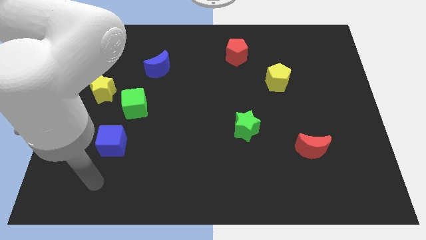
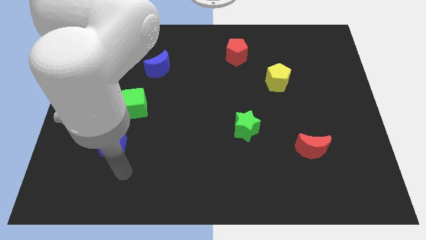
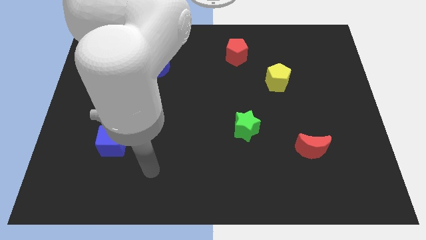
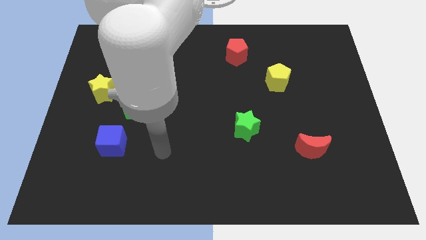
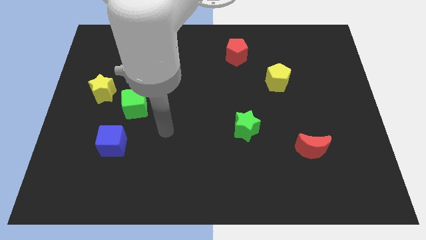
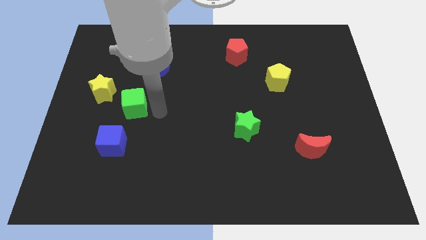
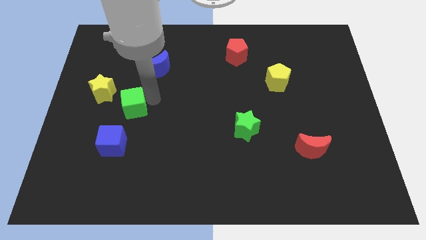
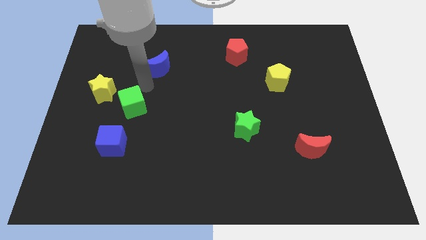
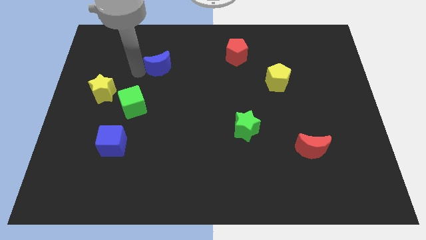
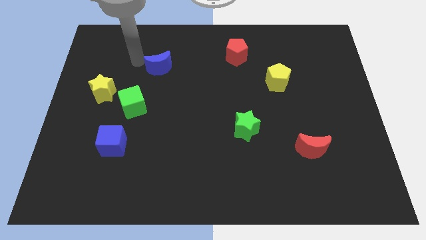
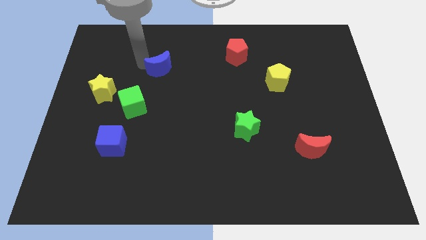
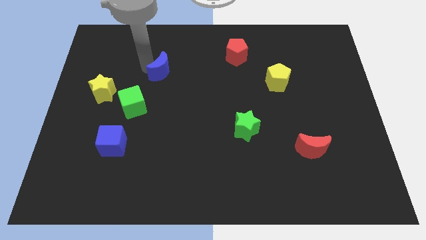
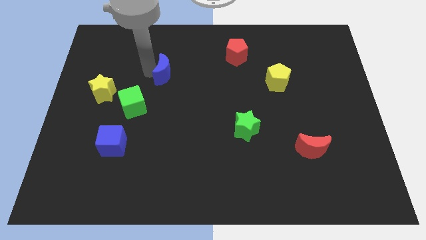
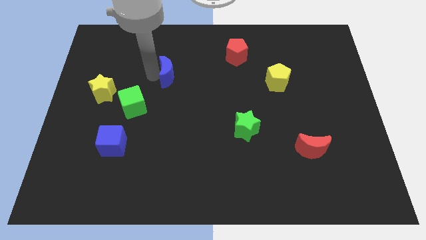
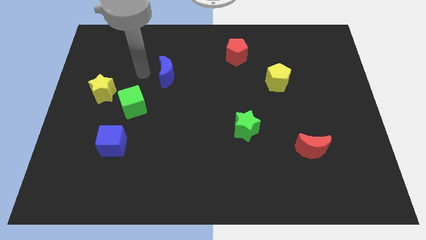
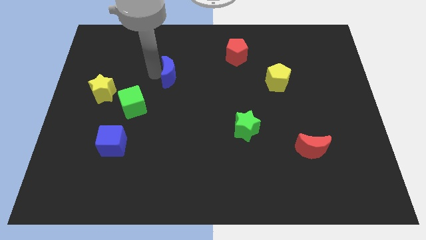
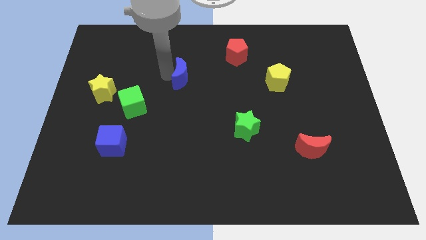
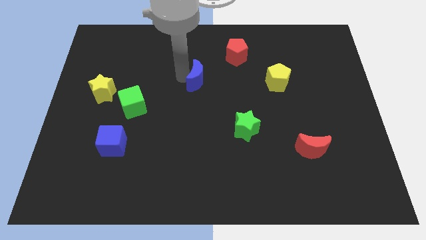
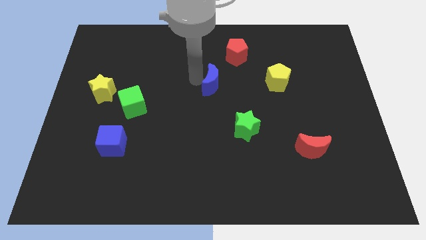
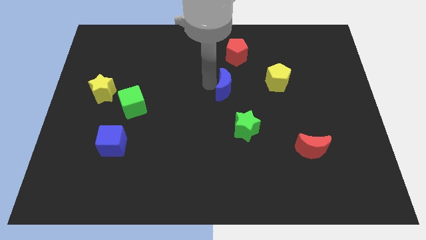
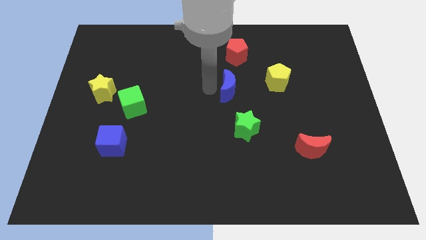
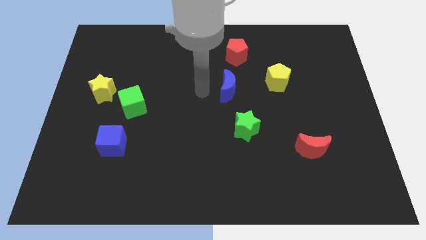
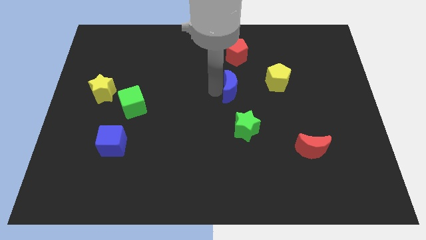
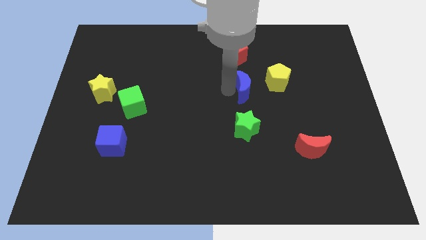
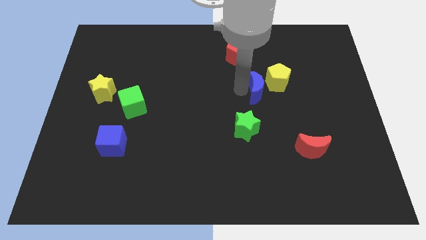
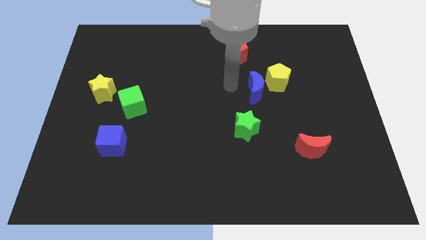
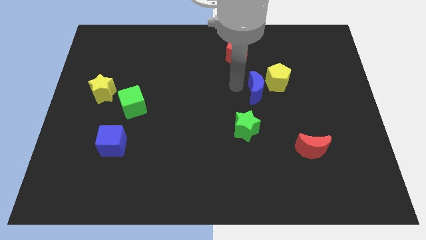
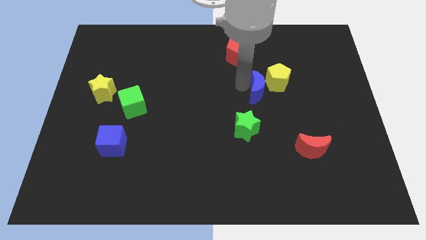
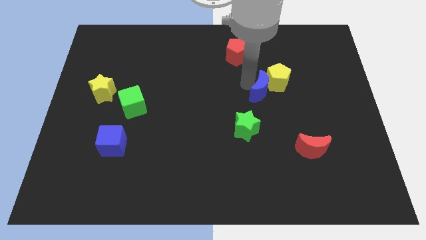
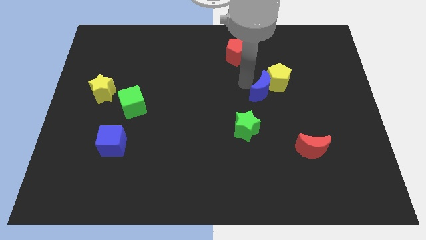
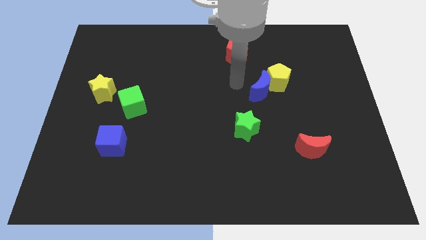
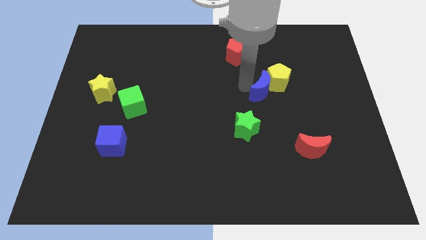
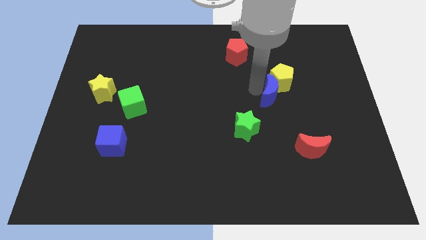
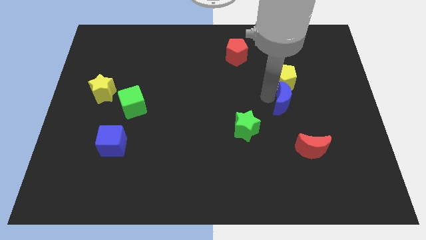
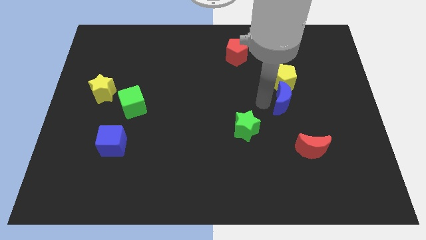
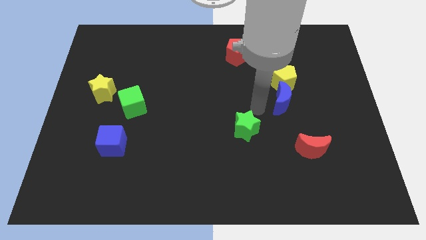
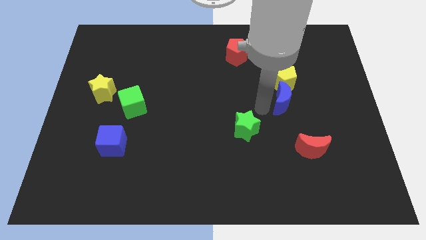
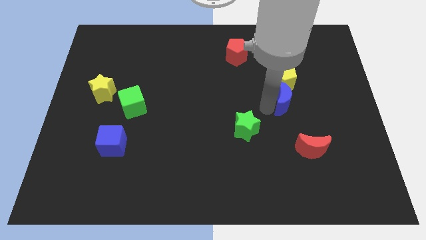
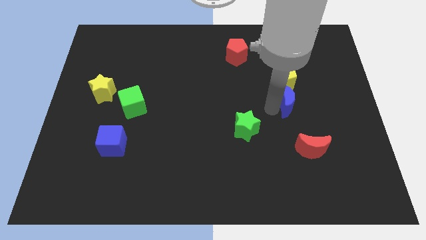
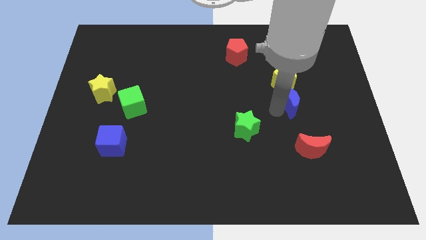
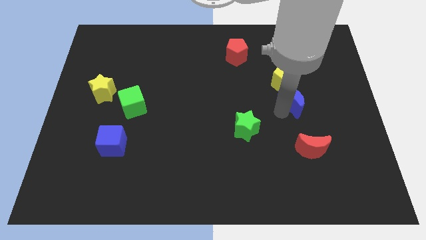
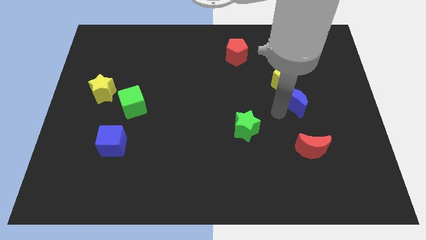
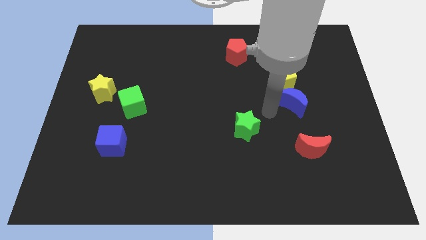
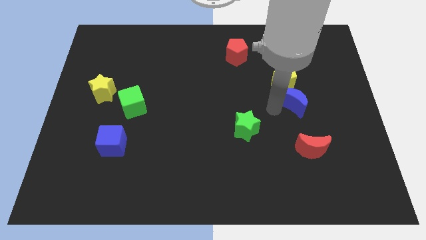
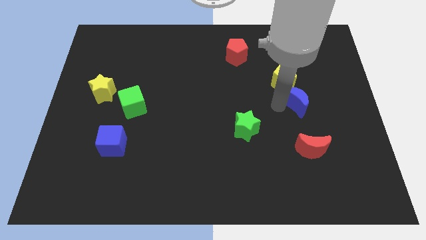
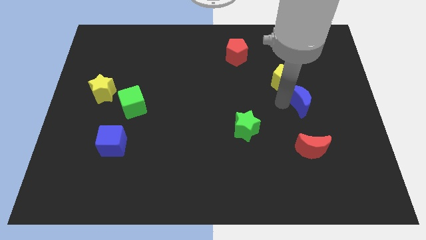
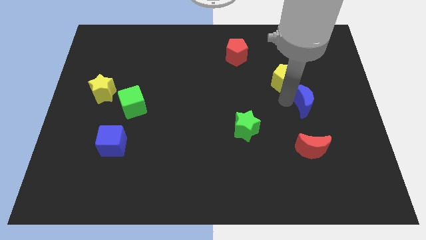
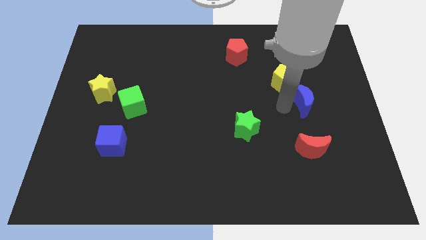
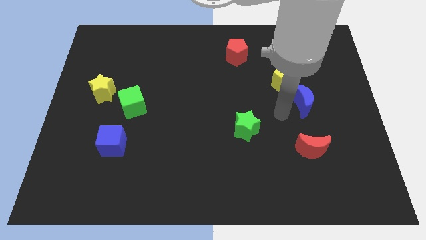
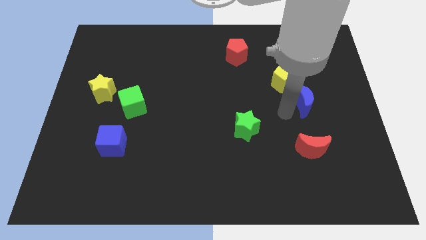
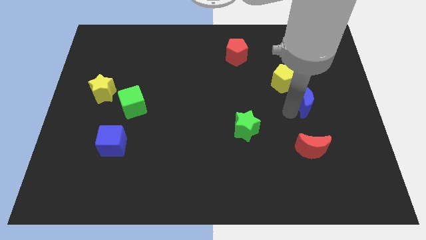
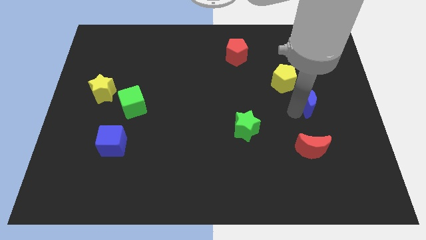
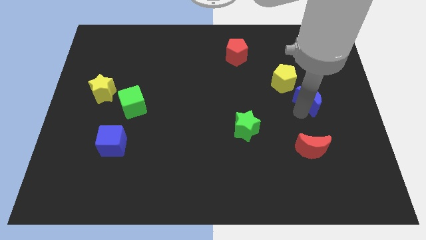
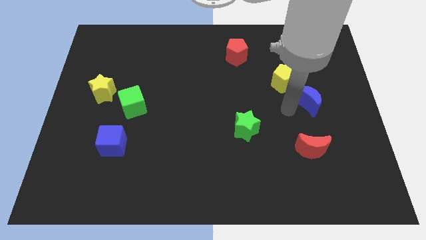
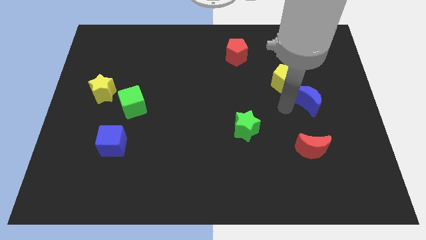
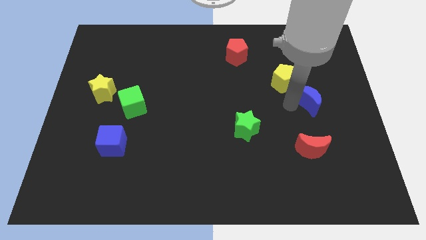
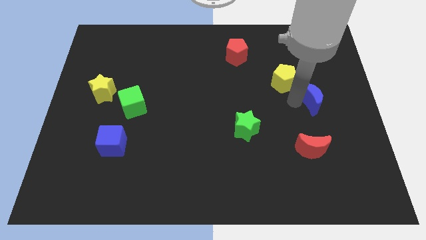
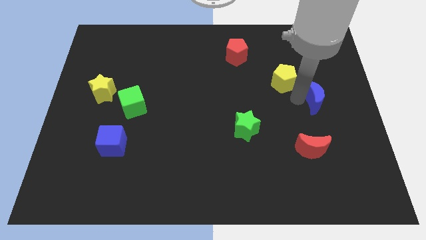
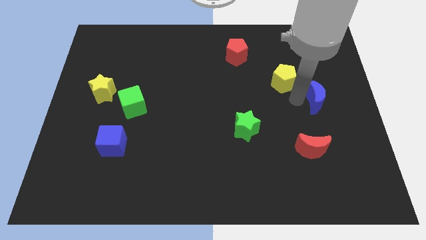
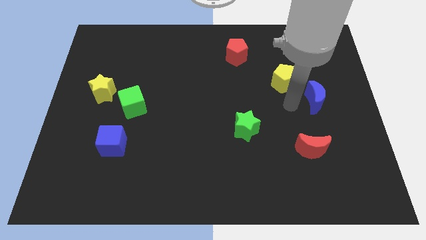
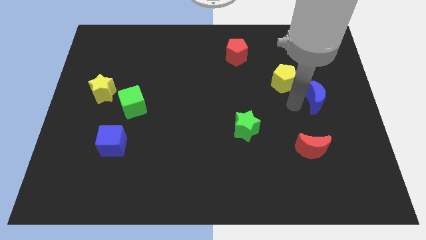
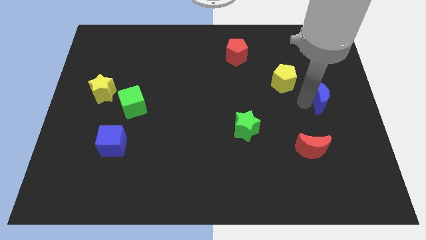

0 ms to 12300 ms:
put the blue moon to the right side

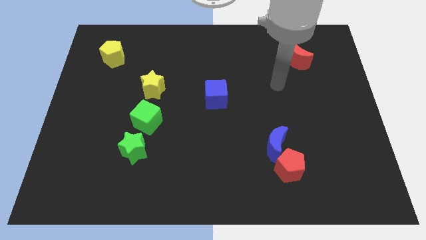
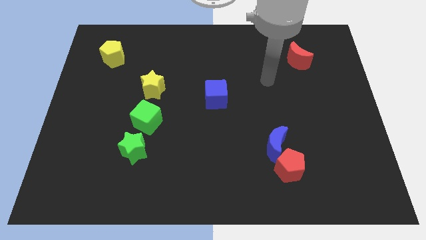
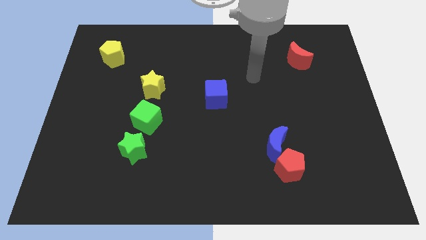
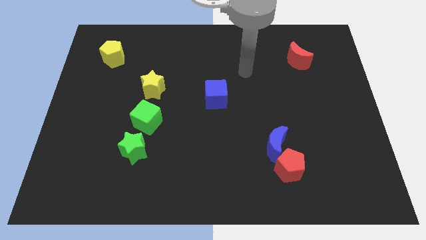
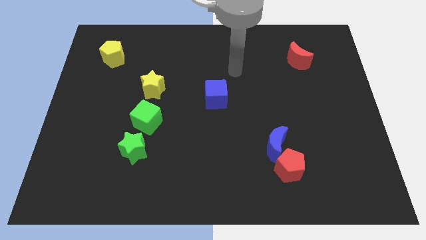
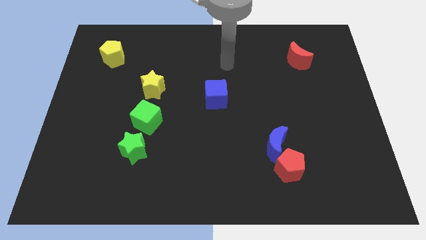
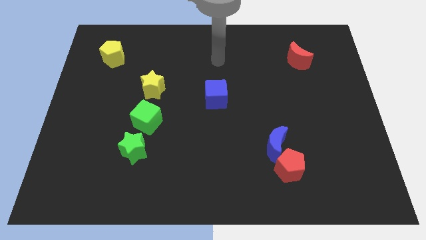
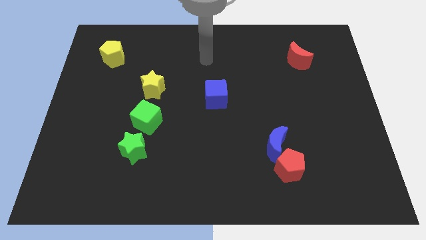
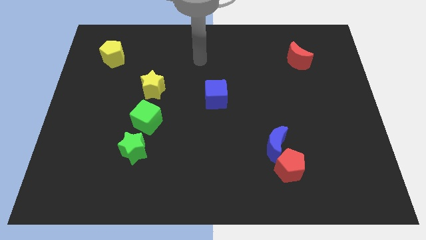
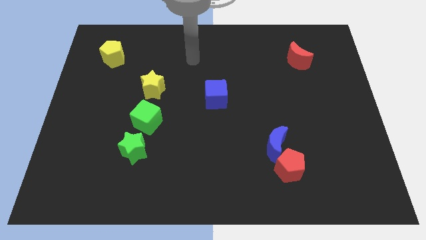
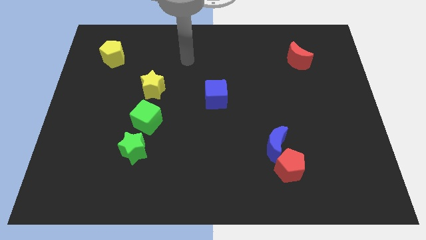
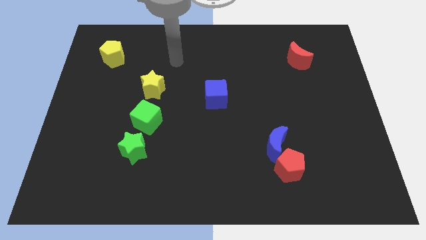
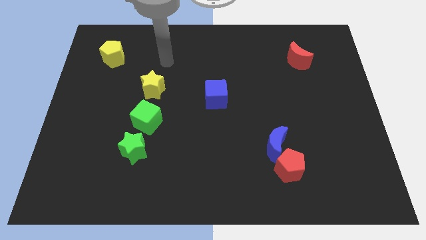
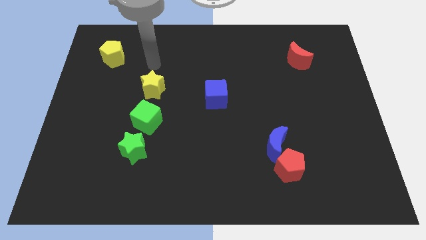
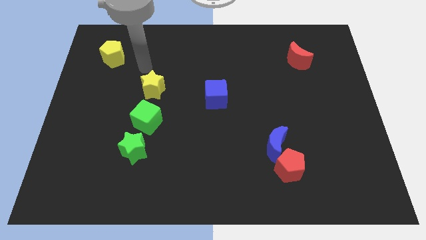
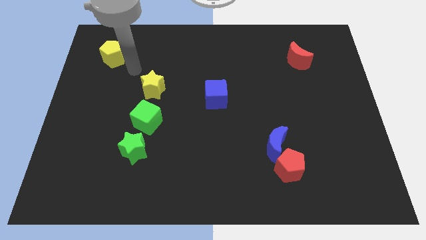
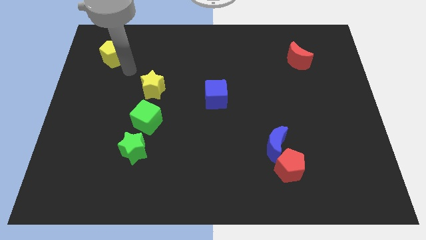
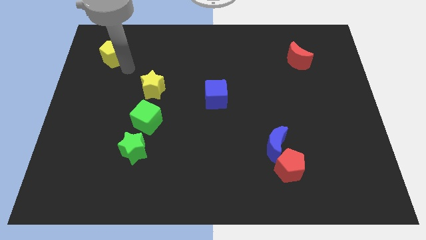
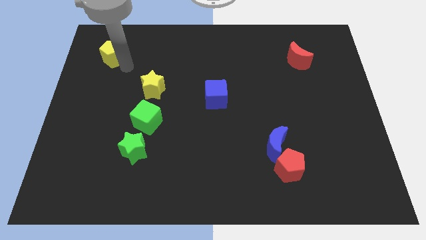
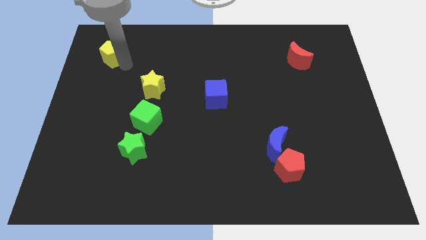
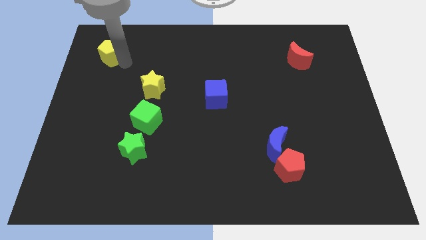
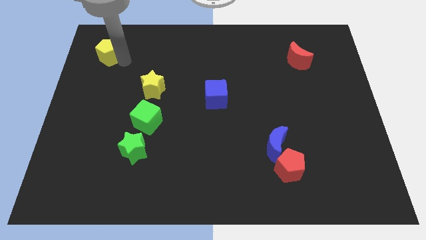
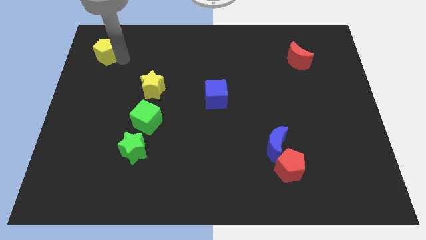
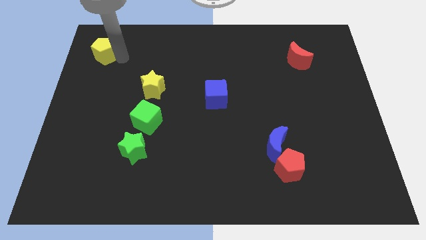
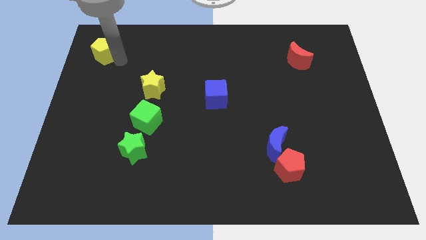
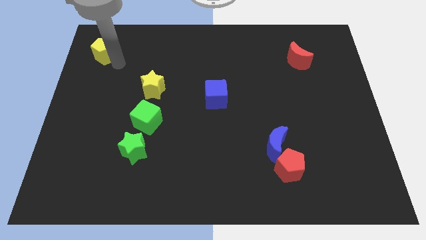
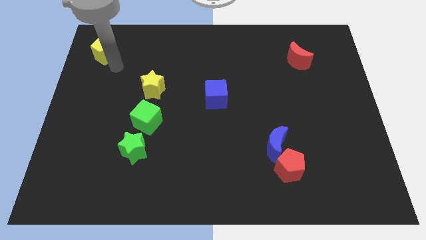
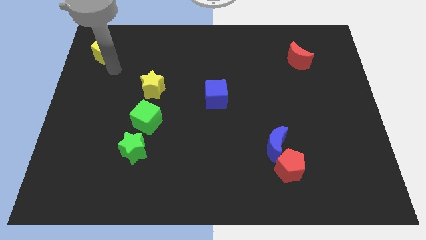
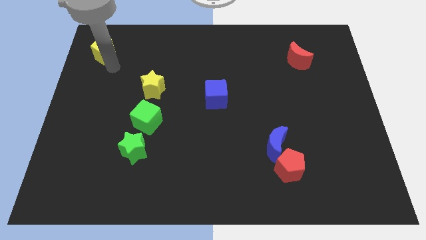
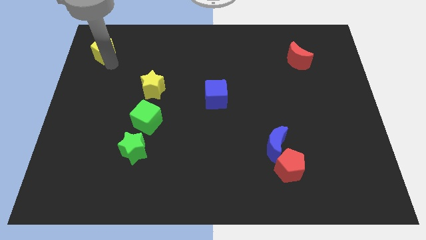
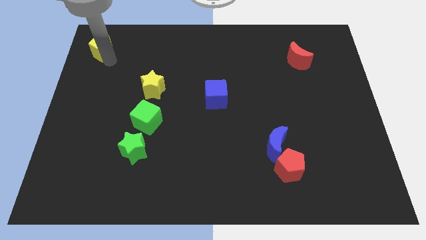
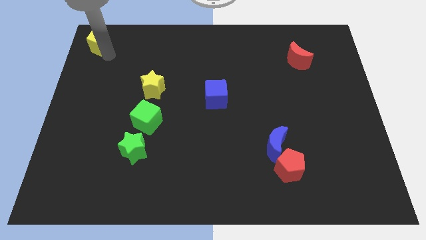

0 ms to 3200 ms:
move the yellow pentagon to the top left of the board
